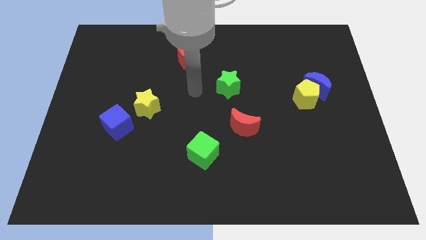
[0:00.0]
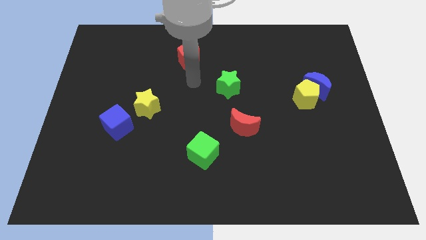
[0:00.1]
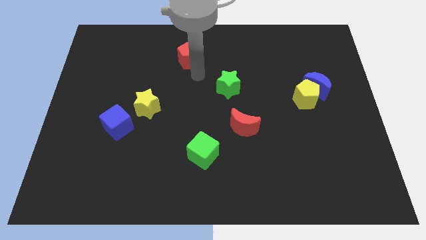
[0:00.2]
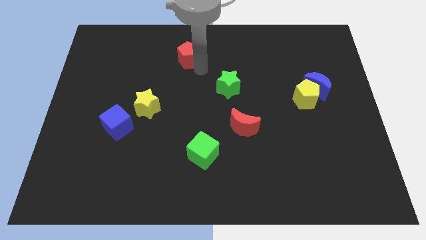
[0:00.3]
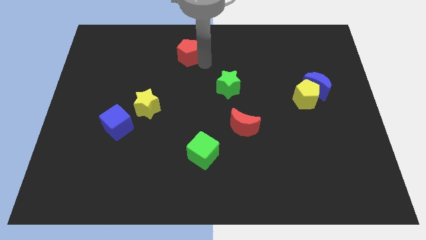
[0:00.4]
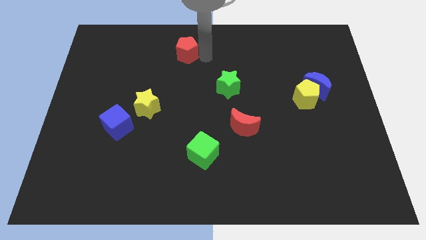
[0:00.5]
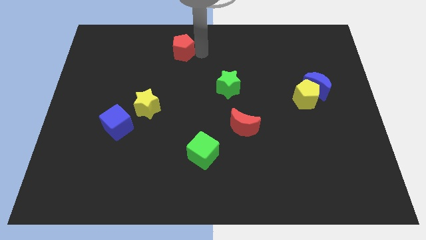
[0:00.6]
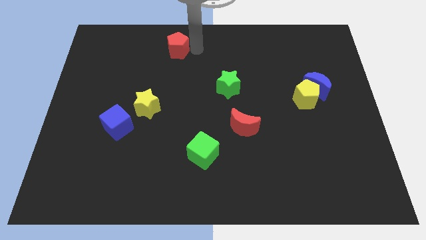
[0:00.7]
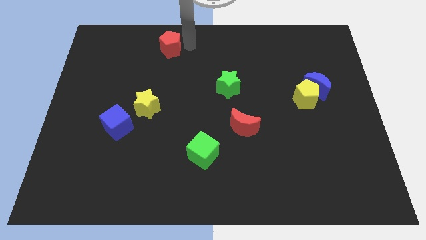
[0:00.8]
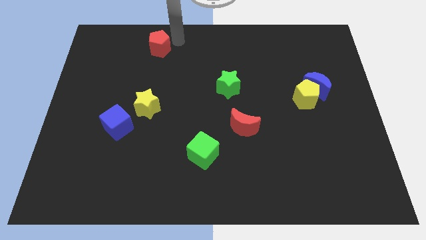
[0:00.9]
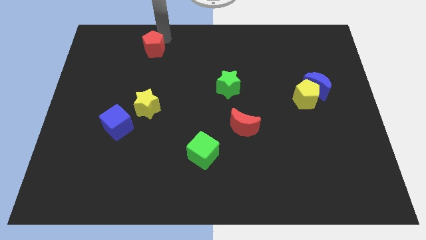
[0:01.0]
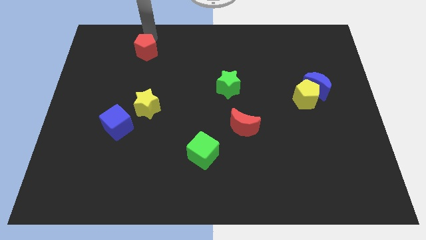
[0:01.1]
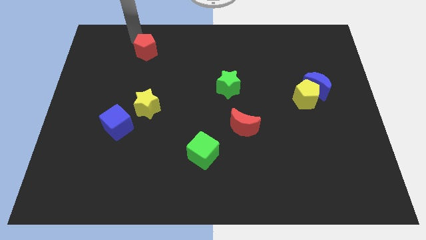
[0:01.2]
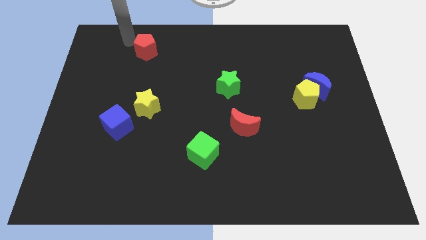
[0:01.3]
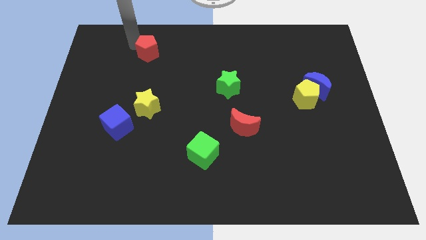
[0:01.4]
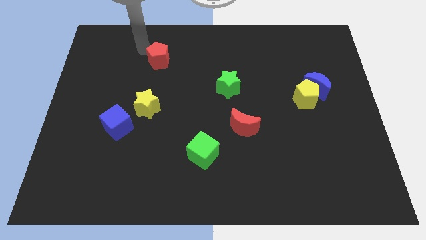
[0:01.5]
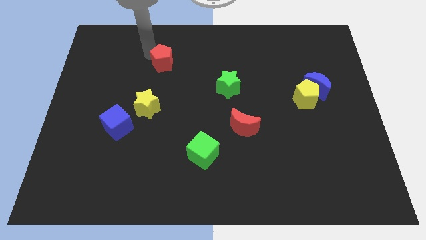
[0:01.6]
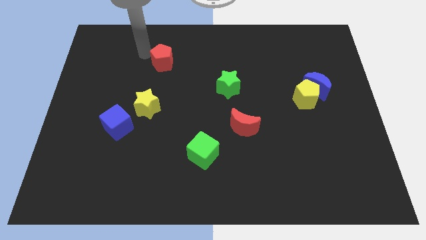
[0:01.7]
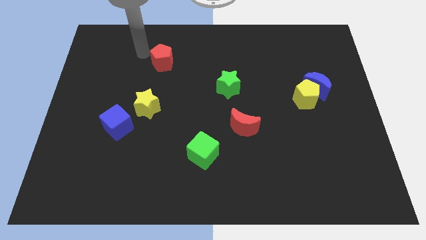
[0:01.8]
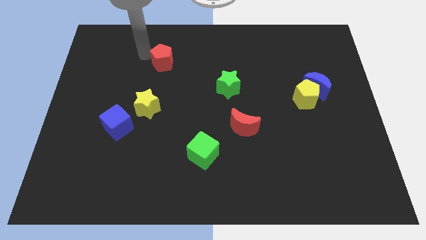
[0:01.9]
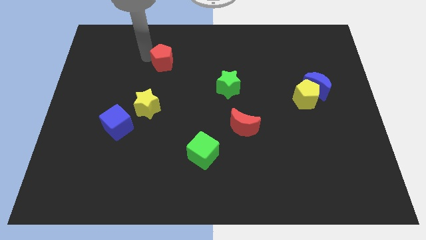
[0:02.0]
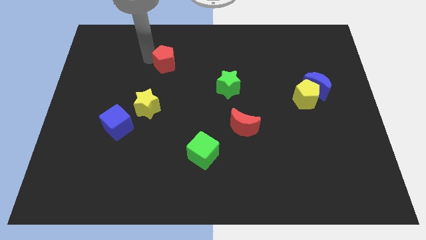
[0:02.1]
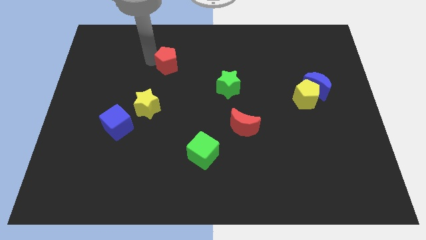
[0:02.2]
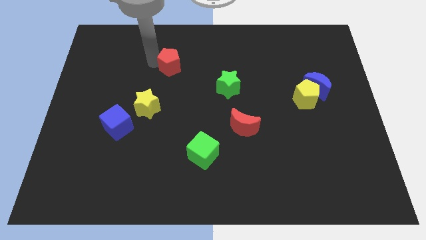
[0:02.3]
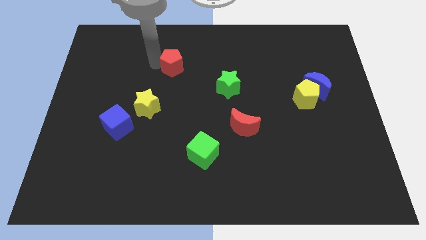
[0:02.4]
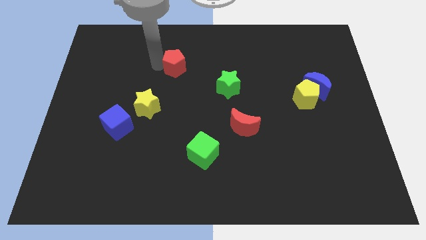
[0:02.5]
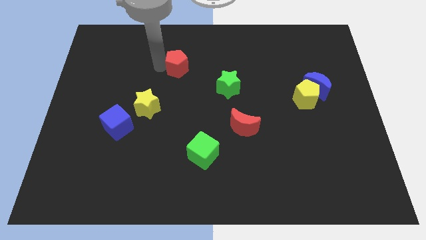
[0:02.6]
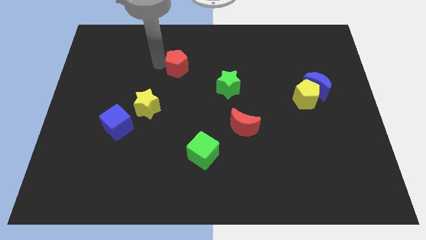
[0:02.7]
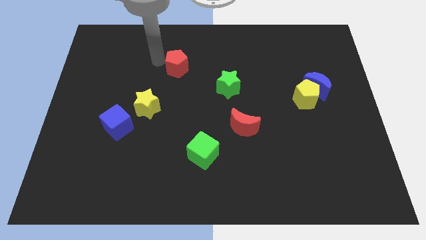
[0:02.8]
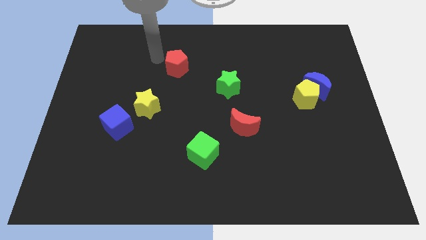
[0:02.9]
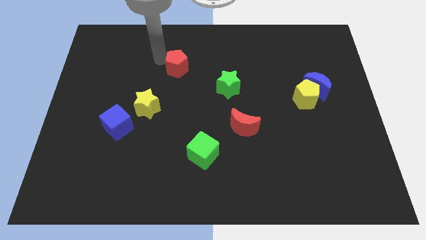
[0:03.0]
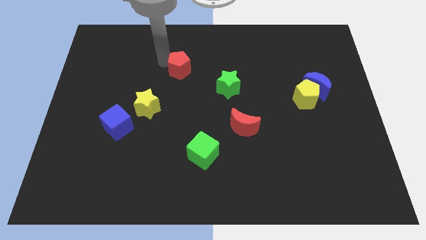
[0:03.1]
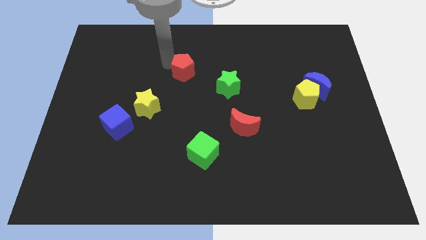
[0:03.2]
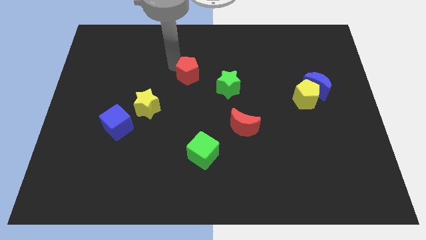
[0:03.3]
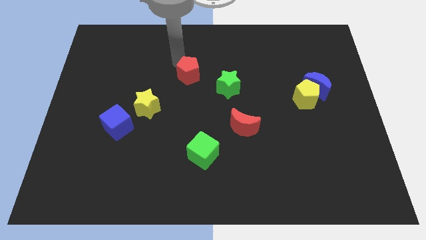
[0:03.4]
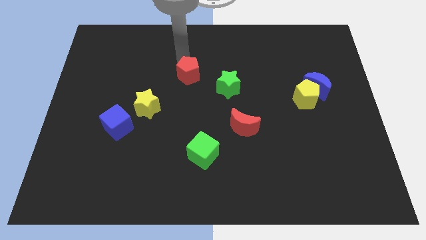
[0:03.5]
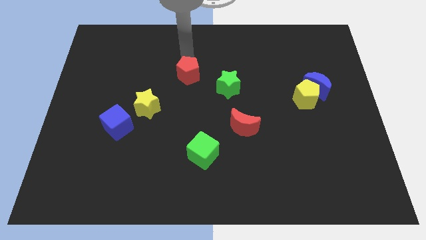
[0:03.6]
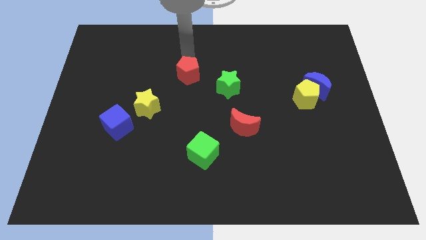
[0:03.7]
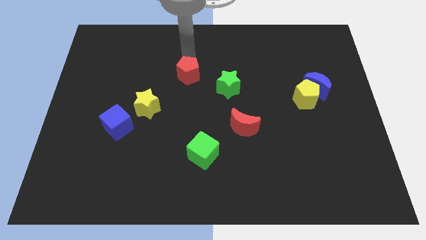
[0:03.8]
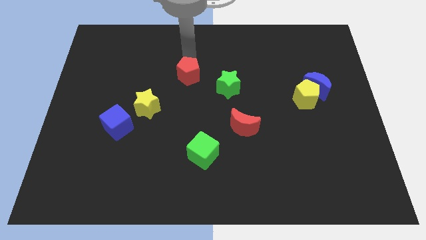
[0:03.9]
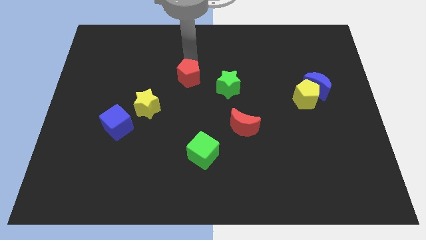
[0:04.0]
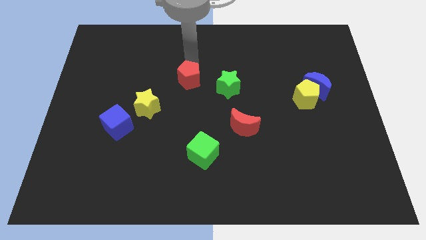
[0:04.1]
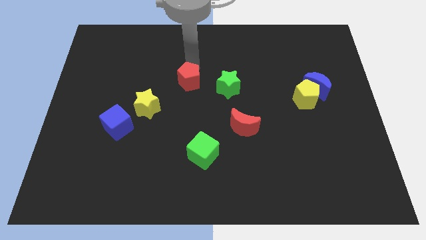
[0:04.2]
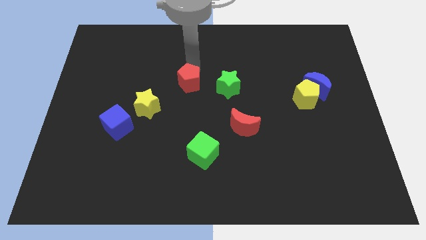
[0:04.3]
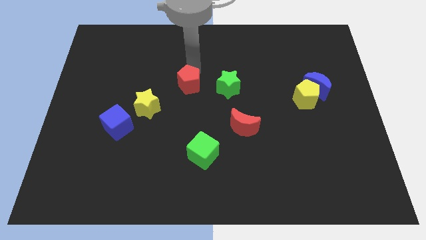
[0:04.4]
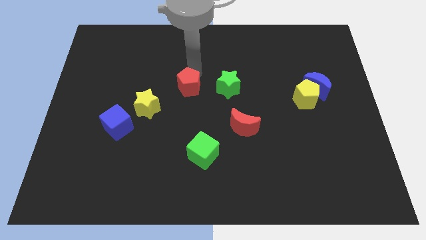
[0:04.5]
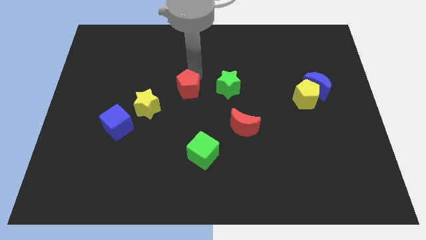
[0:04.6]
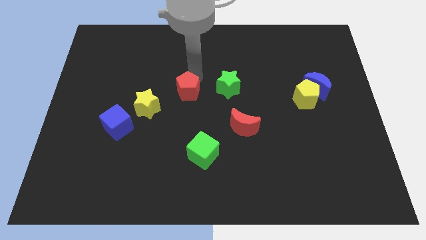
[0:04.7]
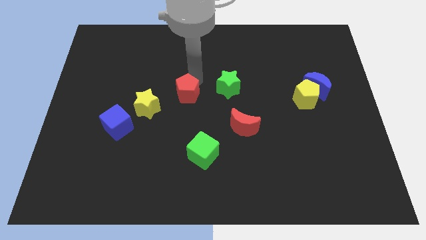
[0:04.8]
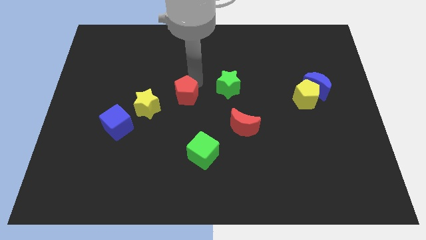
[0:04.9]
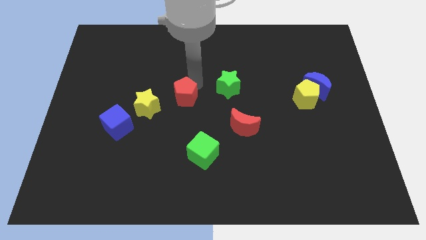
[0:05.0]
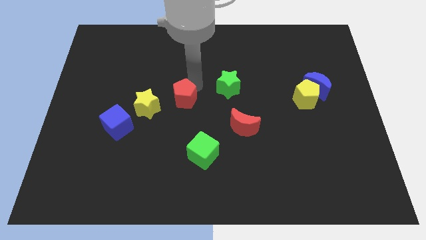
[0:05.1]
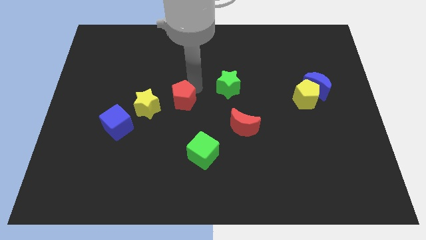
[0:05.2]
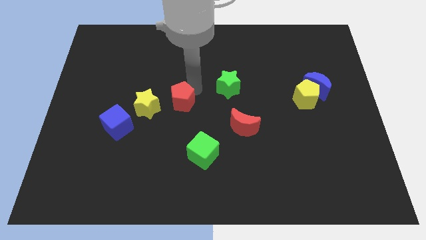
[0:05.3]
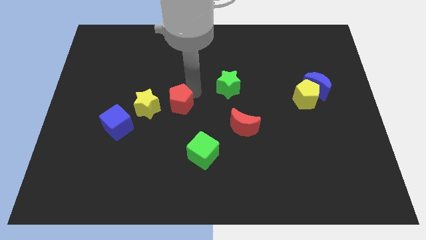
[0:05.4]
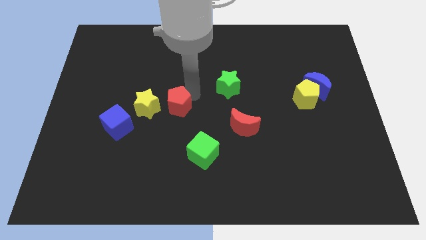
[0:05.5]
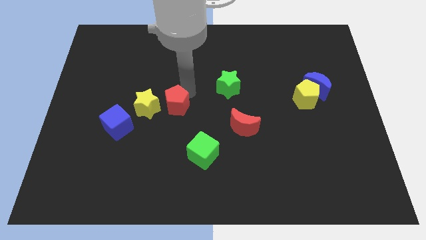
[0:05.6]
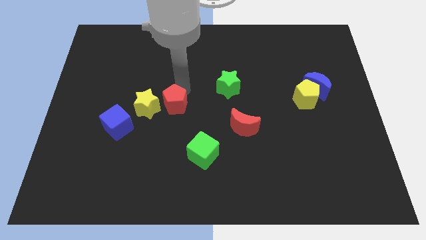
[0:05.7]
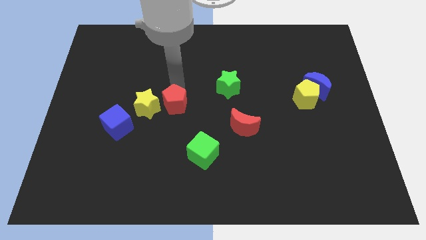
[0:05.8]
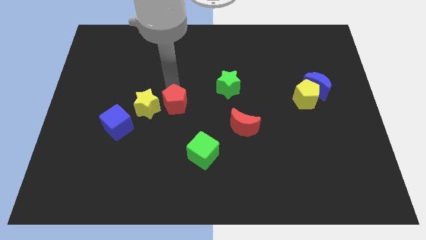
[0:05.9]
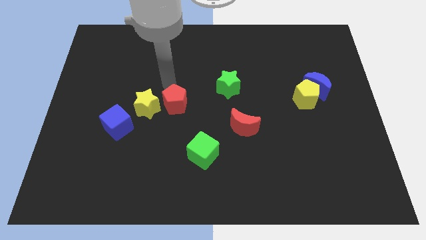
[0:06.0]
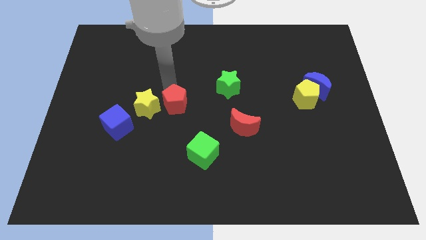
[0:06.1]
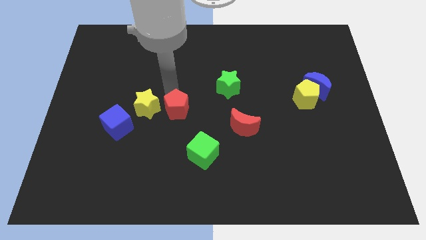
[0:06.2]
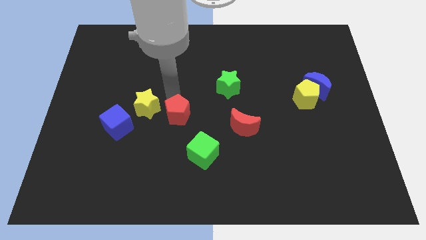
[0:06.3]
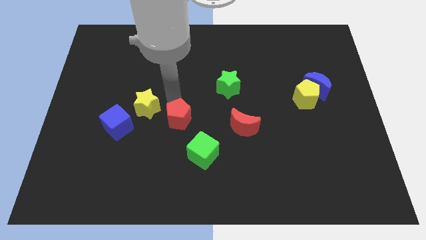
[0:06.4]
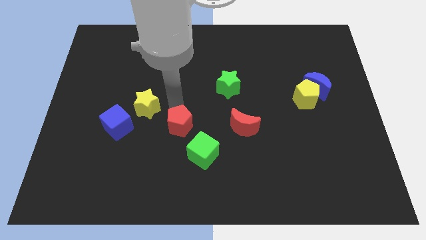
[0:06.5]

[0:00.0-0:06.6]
slide the red pentagon down

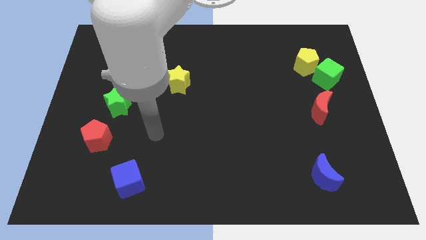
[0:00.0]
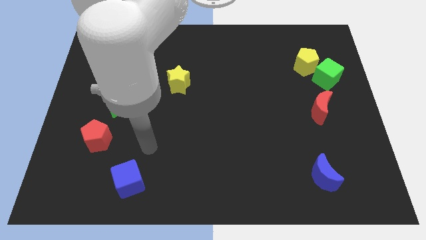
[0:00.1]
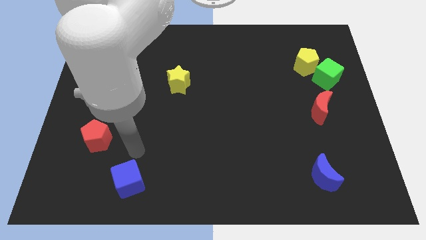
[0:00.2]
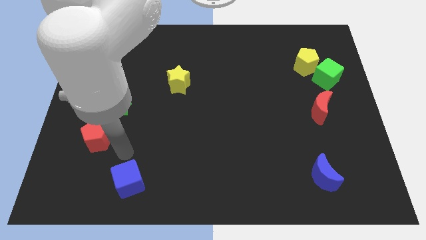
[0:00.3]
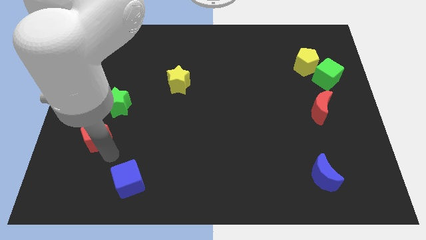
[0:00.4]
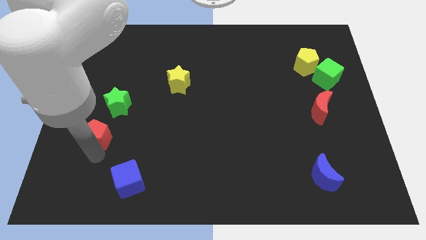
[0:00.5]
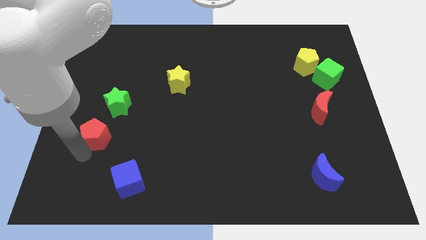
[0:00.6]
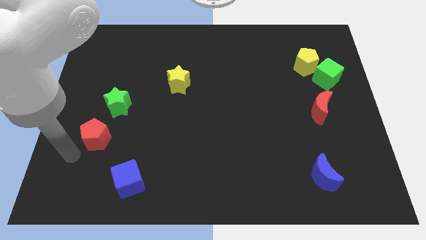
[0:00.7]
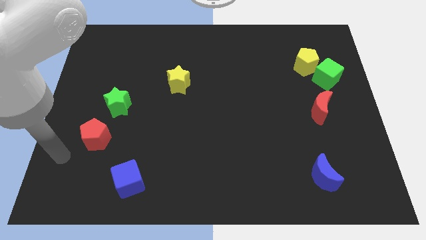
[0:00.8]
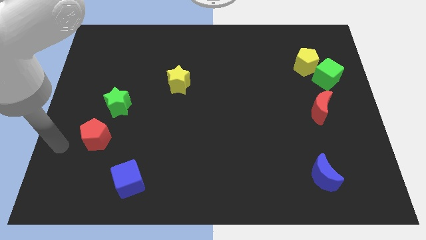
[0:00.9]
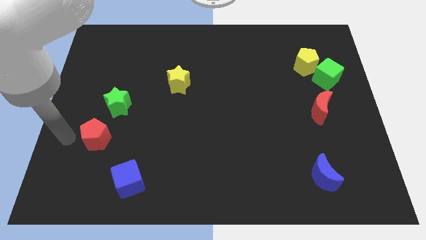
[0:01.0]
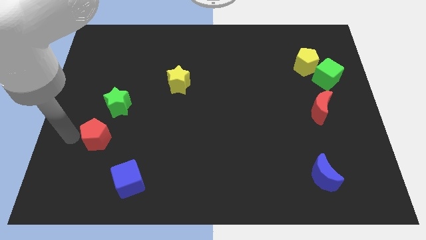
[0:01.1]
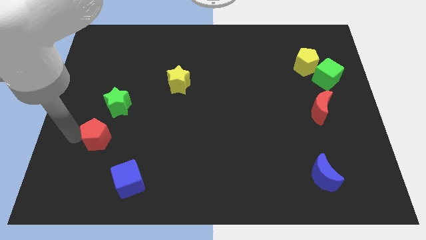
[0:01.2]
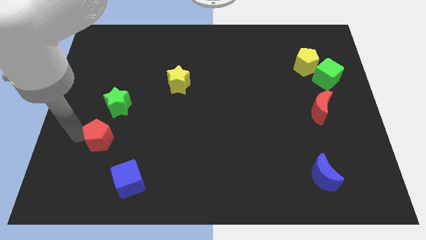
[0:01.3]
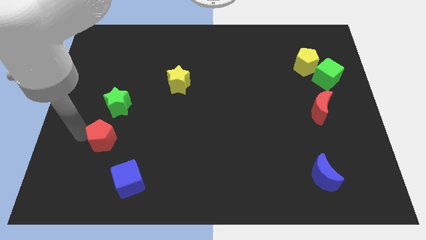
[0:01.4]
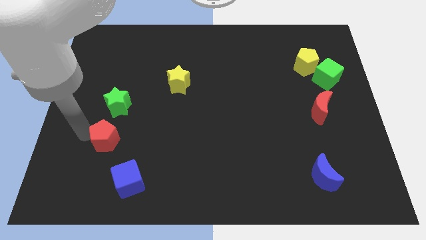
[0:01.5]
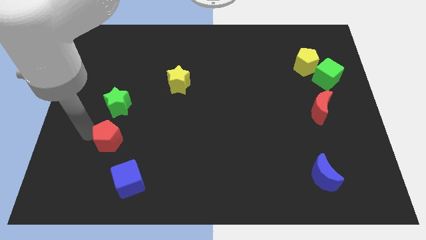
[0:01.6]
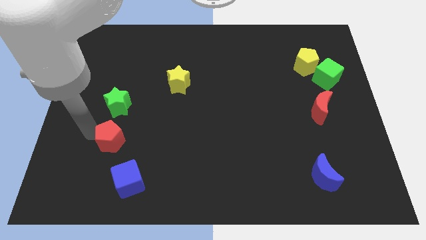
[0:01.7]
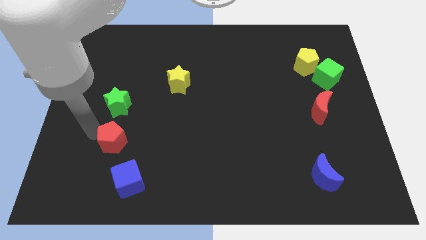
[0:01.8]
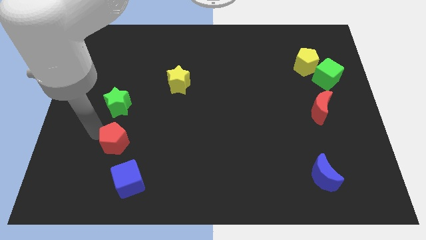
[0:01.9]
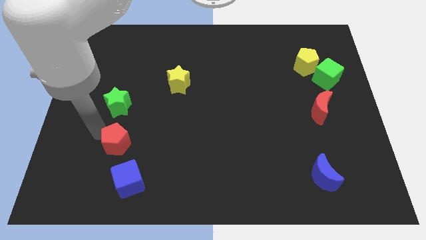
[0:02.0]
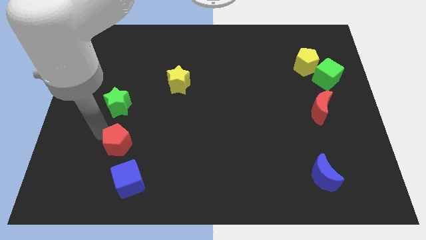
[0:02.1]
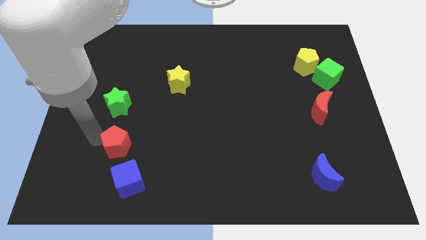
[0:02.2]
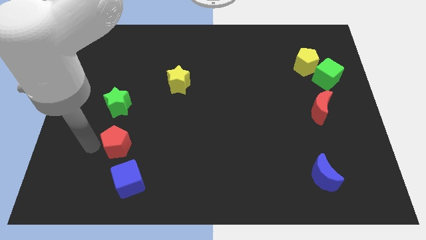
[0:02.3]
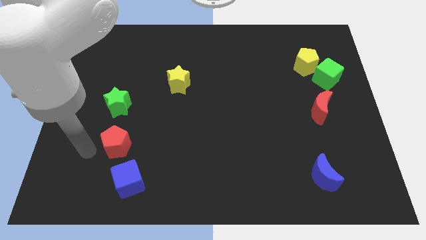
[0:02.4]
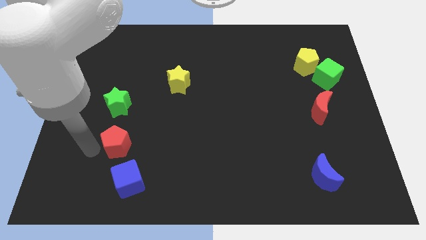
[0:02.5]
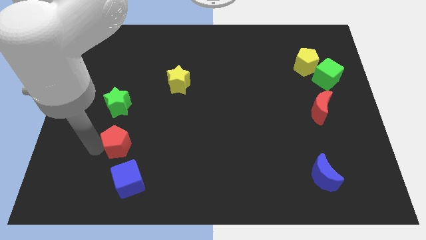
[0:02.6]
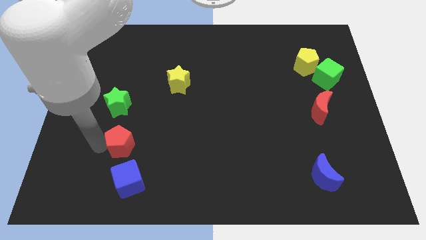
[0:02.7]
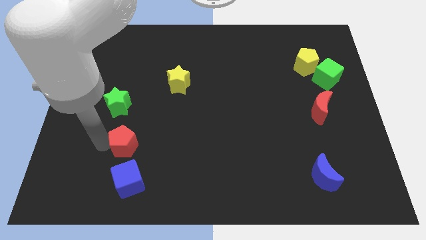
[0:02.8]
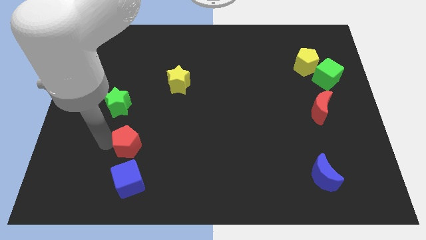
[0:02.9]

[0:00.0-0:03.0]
push the red pentagon right a bit
